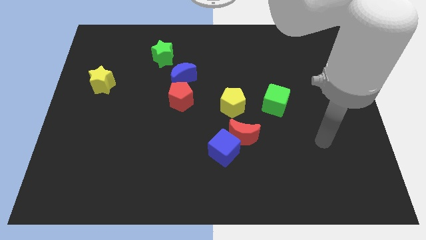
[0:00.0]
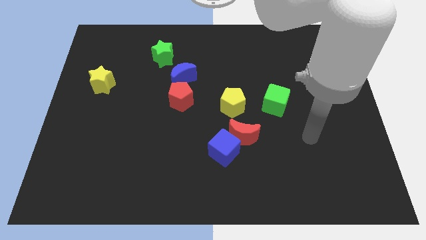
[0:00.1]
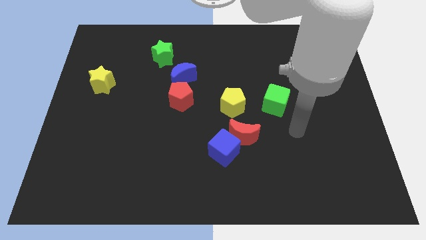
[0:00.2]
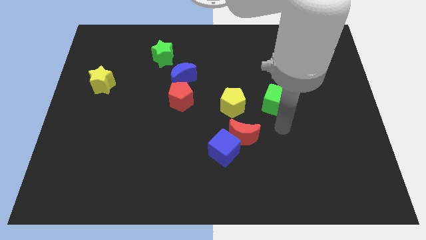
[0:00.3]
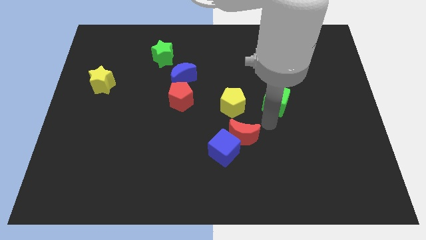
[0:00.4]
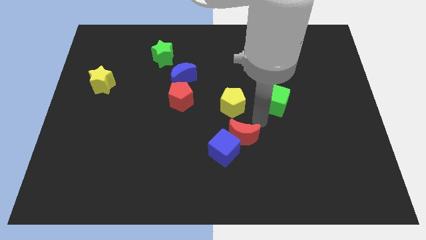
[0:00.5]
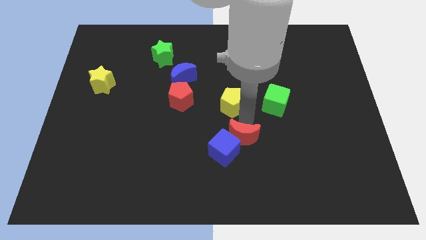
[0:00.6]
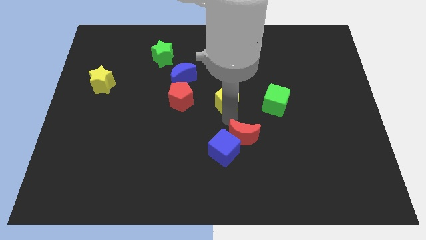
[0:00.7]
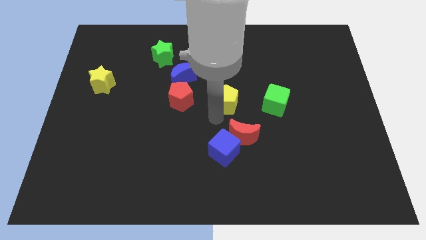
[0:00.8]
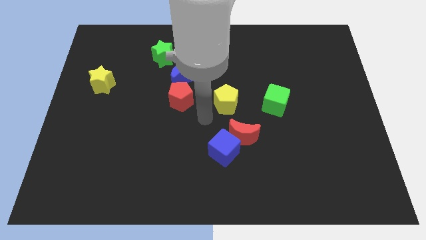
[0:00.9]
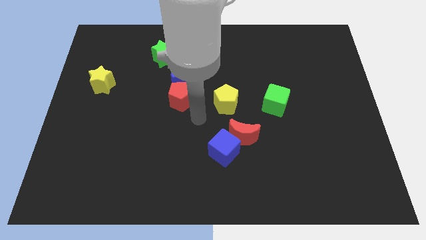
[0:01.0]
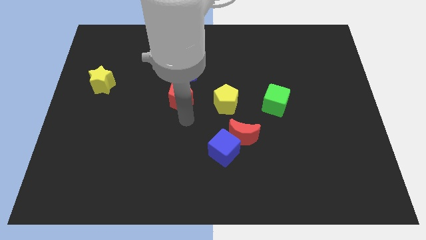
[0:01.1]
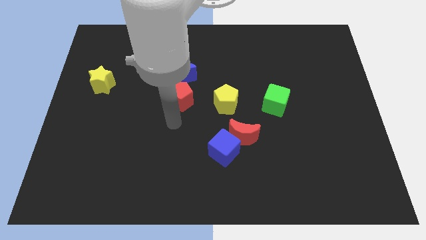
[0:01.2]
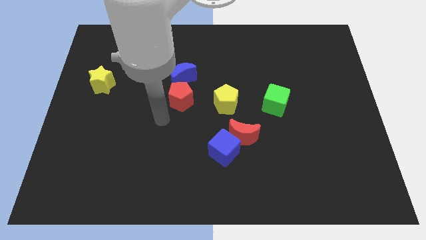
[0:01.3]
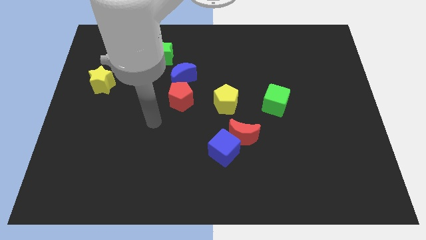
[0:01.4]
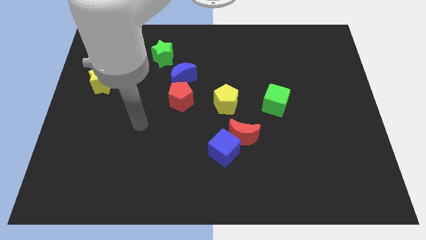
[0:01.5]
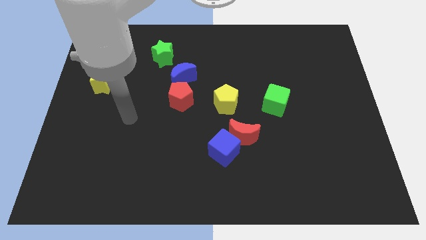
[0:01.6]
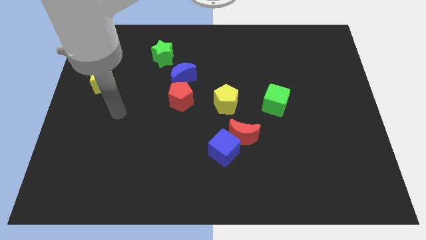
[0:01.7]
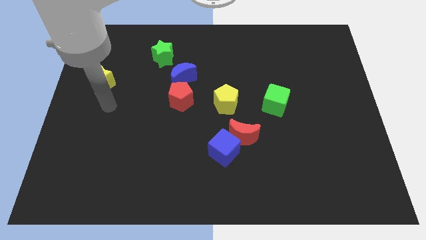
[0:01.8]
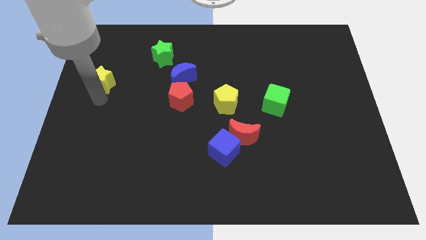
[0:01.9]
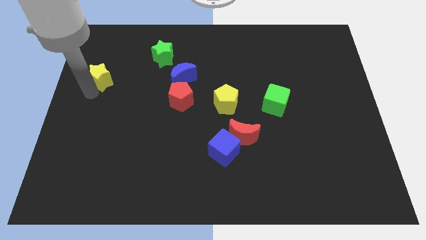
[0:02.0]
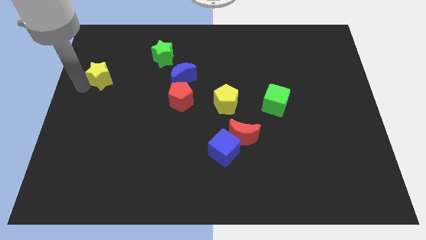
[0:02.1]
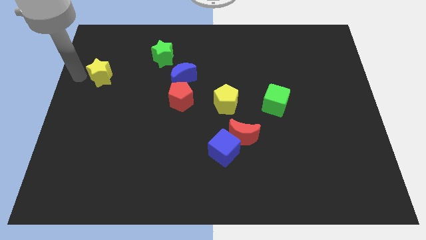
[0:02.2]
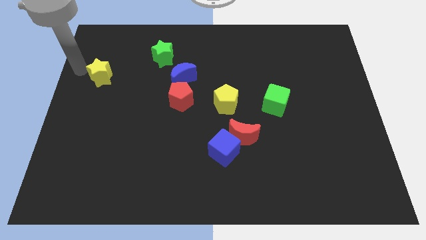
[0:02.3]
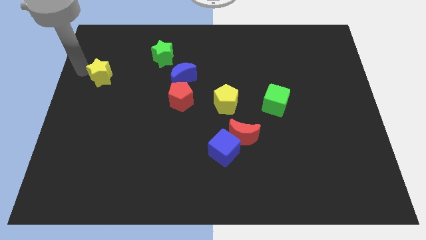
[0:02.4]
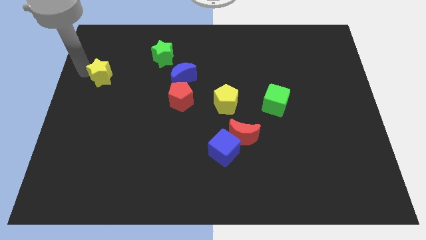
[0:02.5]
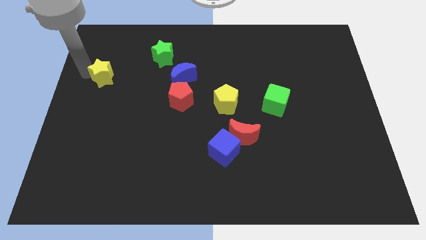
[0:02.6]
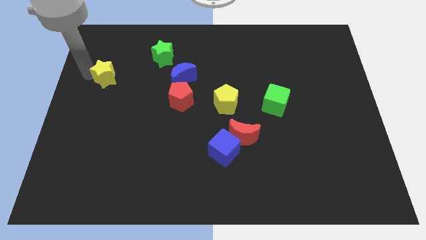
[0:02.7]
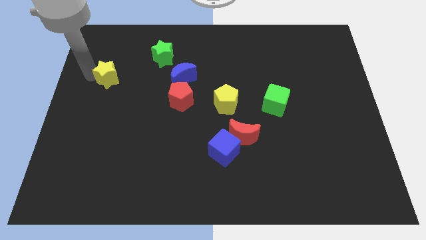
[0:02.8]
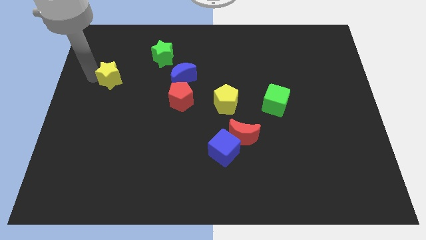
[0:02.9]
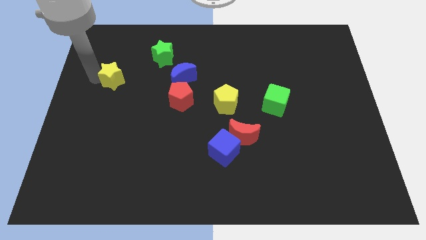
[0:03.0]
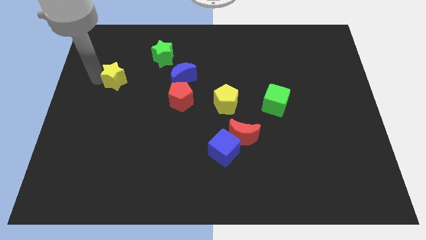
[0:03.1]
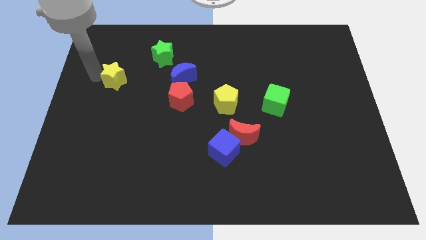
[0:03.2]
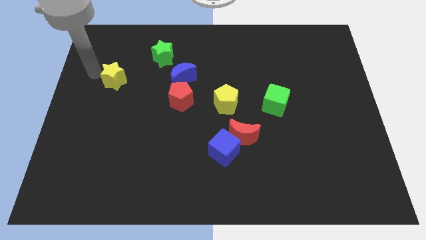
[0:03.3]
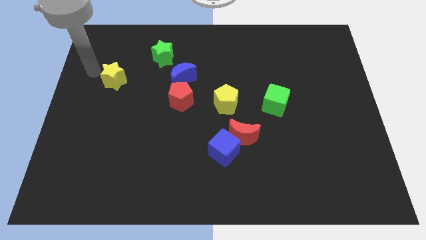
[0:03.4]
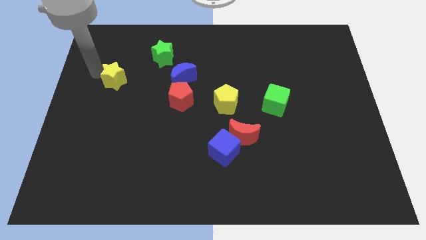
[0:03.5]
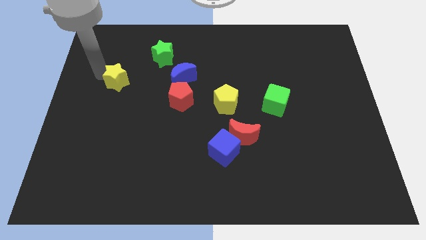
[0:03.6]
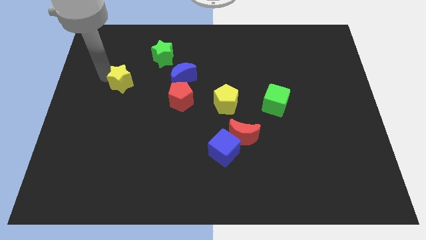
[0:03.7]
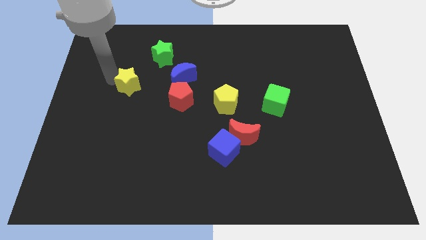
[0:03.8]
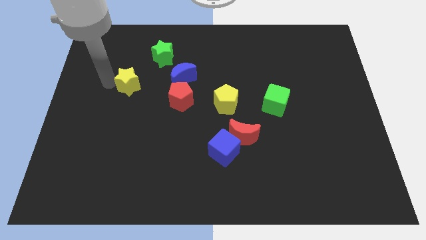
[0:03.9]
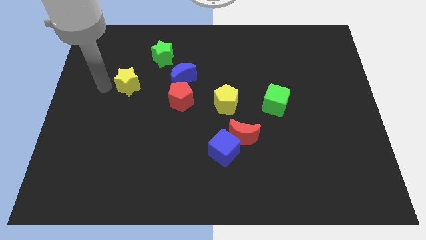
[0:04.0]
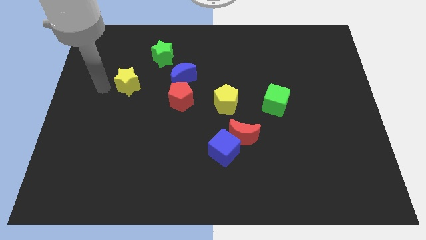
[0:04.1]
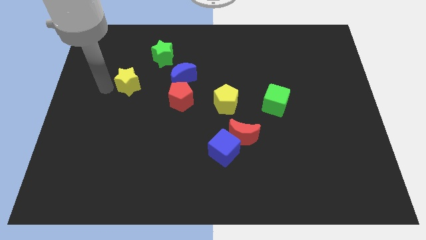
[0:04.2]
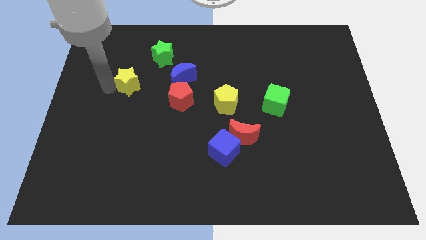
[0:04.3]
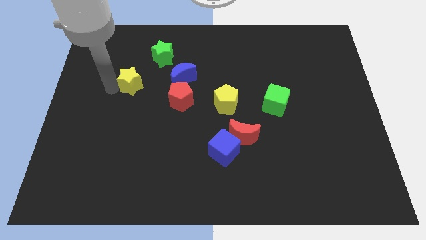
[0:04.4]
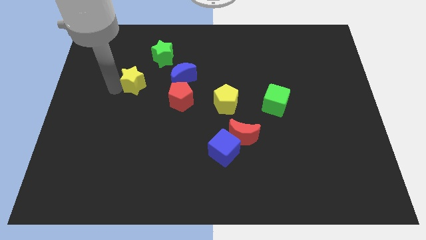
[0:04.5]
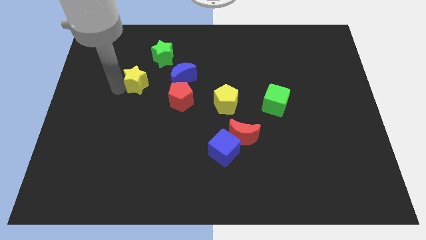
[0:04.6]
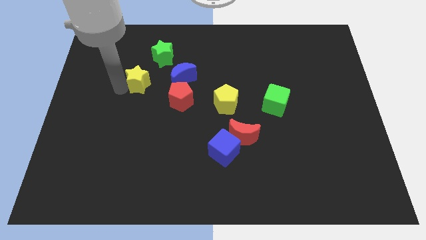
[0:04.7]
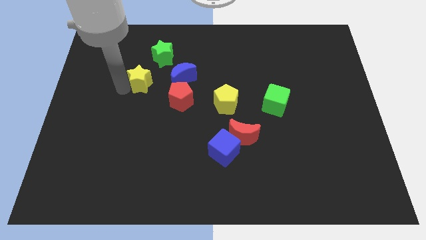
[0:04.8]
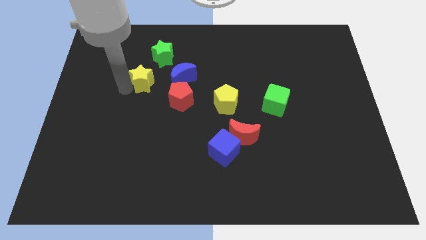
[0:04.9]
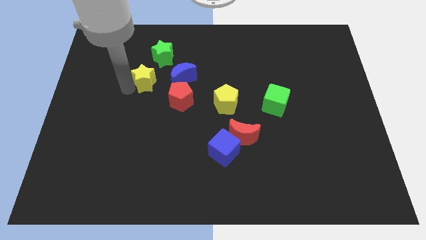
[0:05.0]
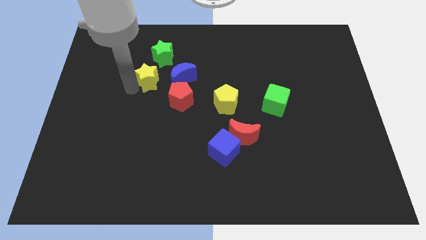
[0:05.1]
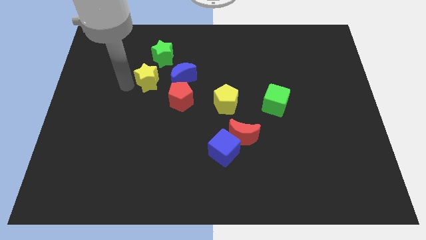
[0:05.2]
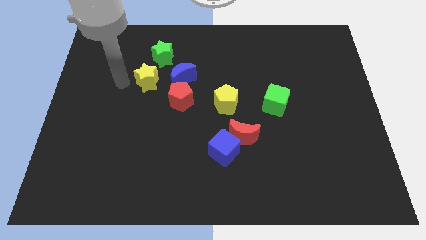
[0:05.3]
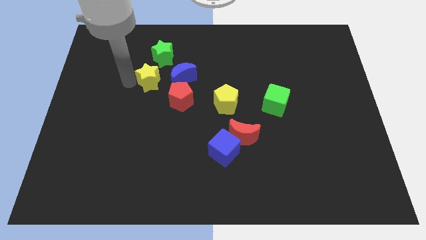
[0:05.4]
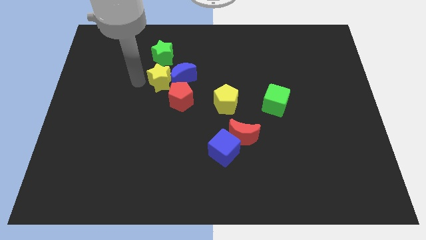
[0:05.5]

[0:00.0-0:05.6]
push the yellow star to the blue moon

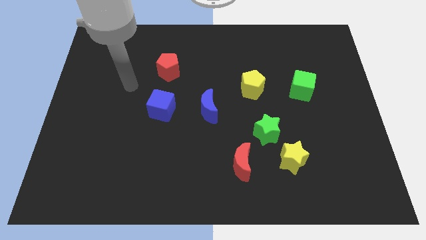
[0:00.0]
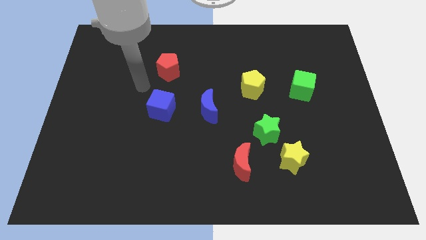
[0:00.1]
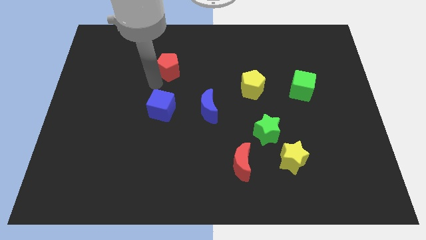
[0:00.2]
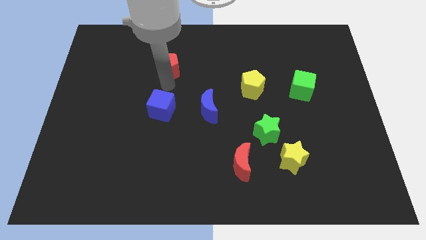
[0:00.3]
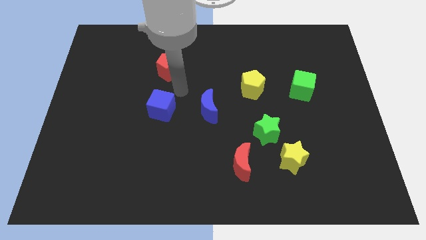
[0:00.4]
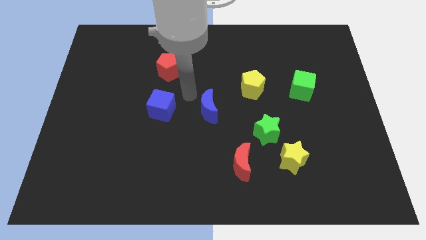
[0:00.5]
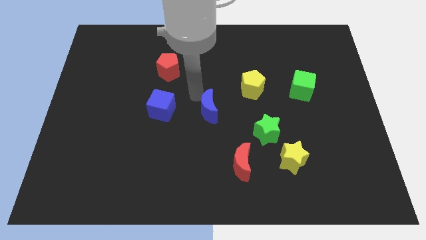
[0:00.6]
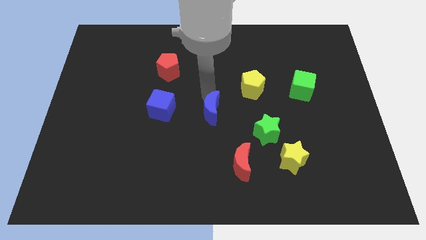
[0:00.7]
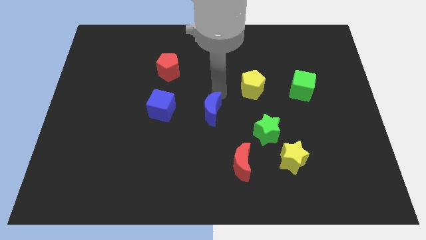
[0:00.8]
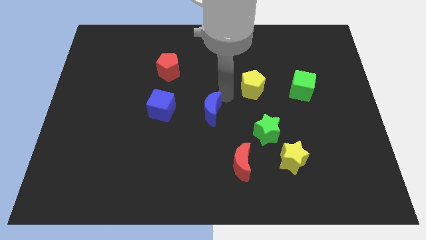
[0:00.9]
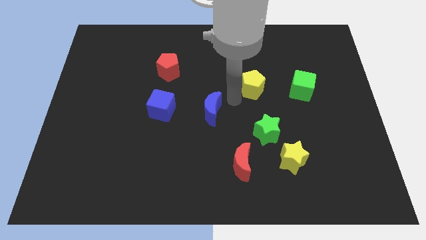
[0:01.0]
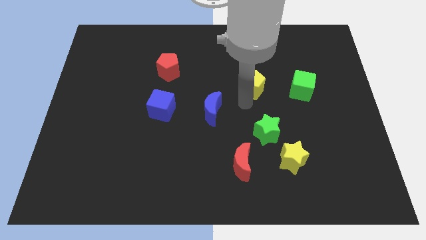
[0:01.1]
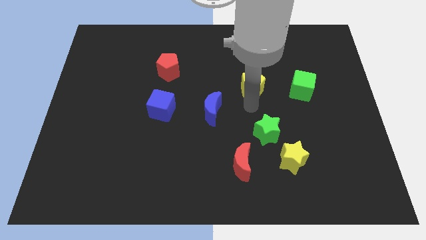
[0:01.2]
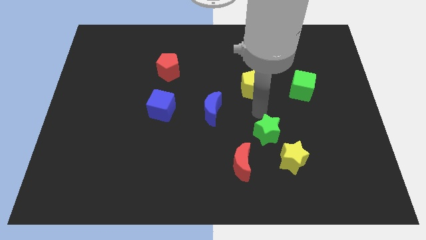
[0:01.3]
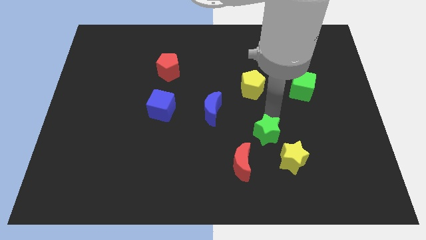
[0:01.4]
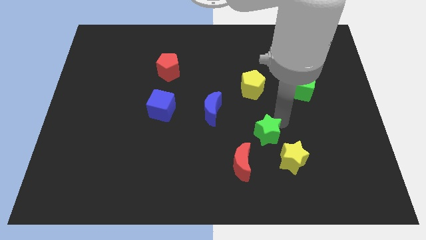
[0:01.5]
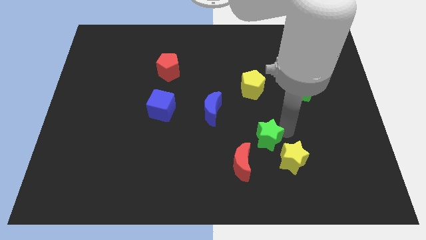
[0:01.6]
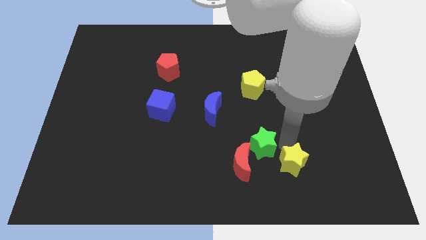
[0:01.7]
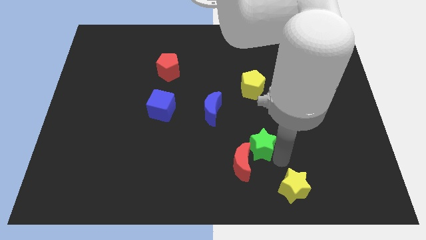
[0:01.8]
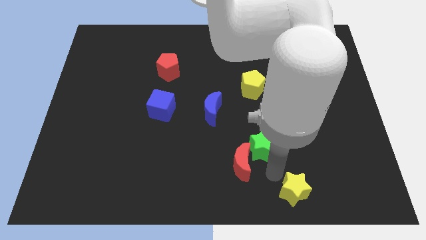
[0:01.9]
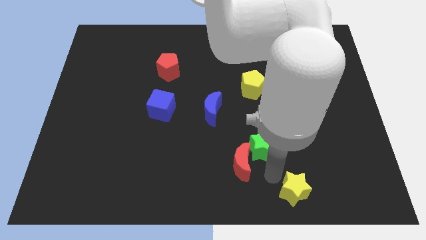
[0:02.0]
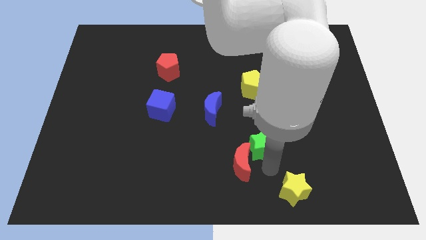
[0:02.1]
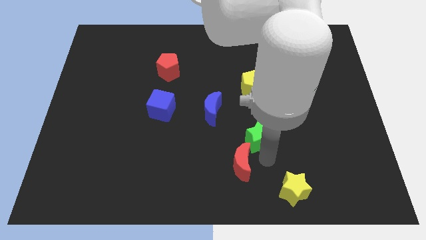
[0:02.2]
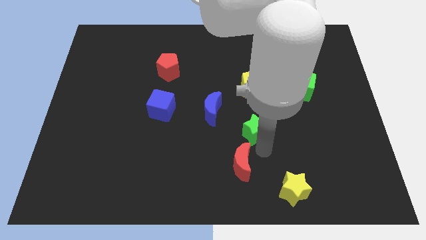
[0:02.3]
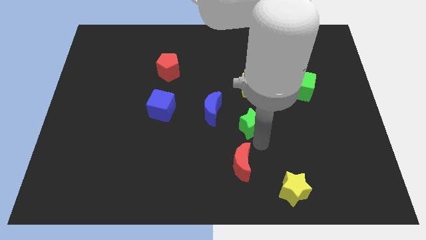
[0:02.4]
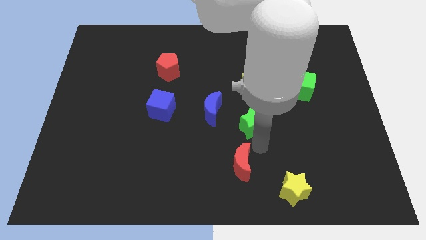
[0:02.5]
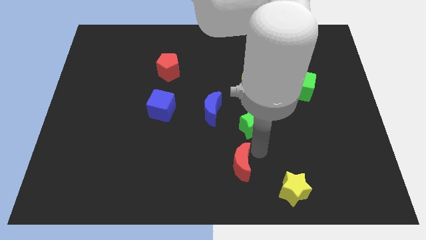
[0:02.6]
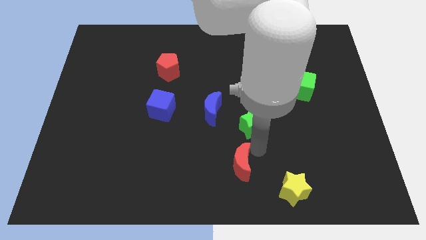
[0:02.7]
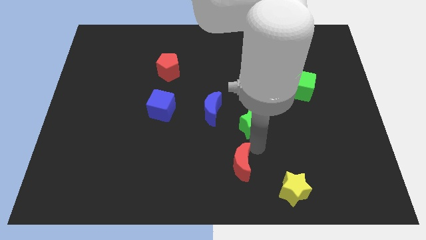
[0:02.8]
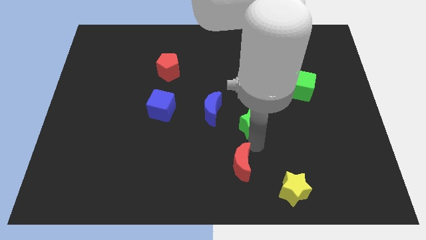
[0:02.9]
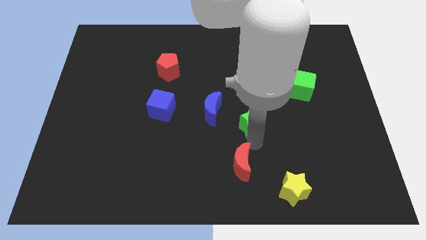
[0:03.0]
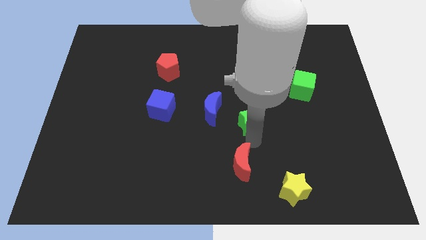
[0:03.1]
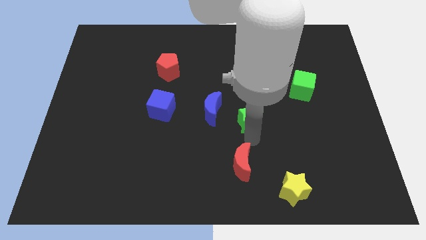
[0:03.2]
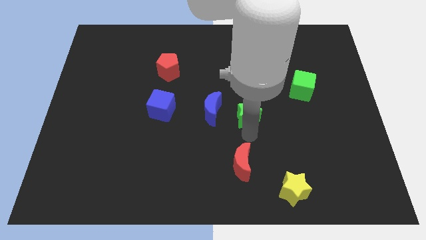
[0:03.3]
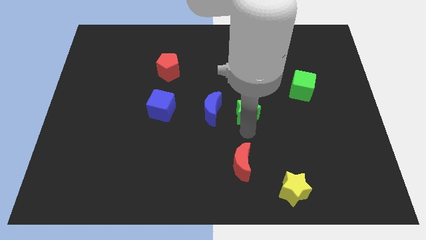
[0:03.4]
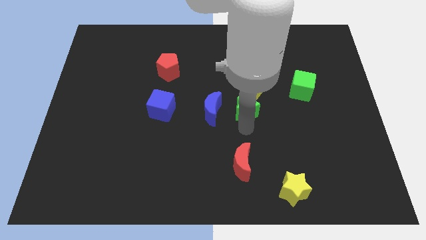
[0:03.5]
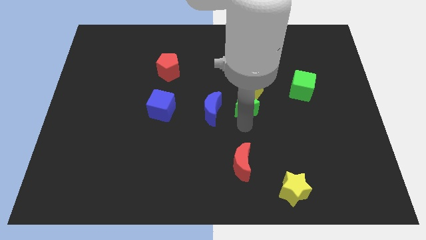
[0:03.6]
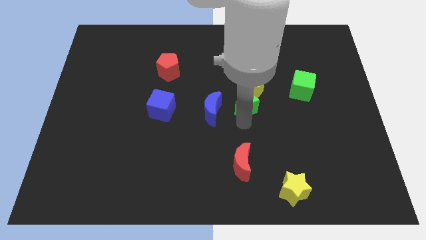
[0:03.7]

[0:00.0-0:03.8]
put the green star next to the yellow pentagon
